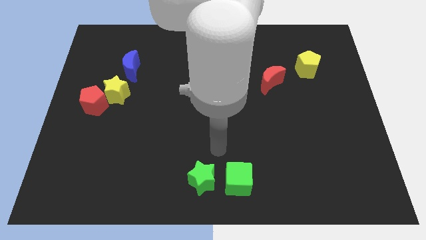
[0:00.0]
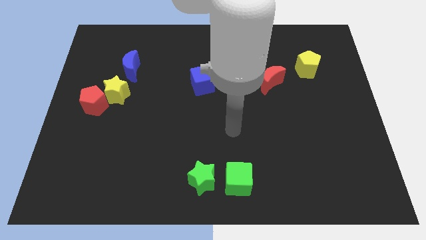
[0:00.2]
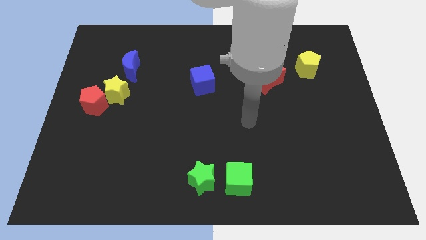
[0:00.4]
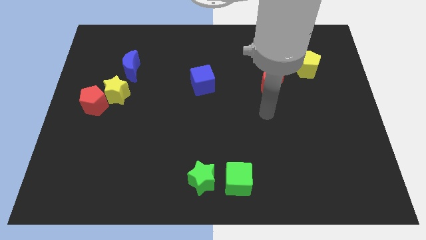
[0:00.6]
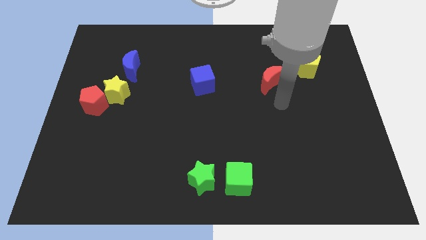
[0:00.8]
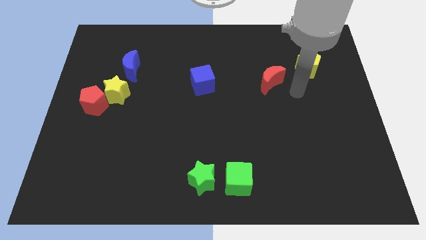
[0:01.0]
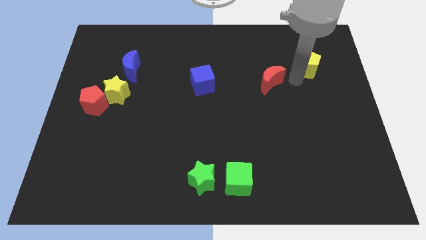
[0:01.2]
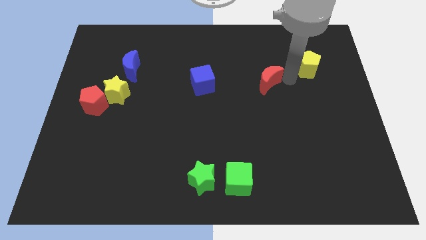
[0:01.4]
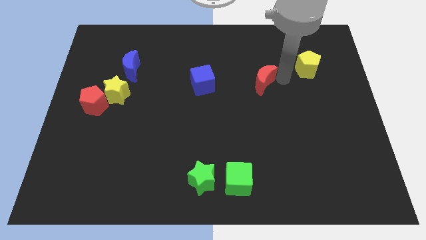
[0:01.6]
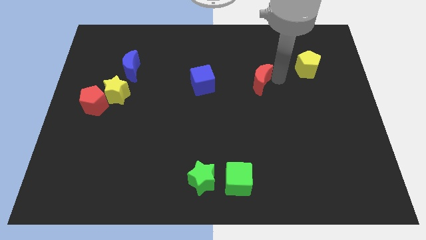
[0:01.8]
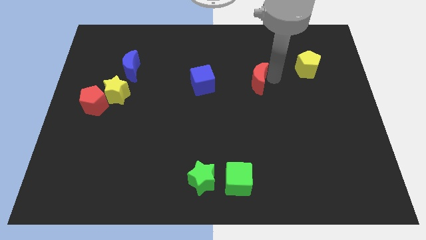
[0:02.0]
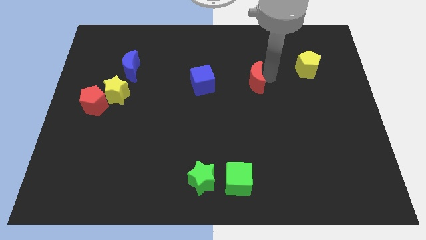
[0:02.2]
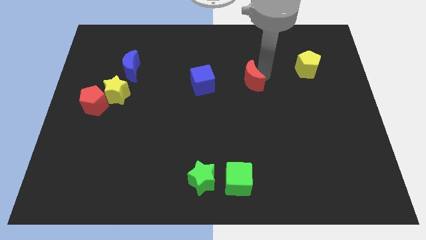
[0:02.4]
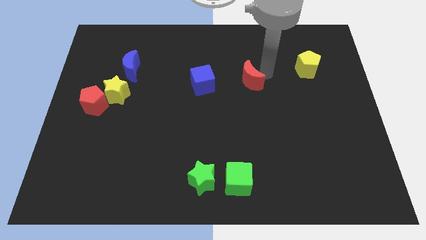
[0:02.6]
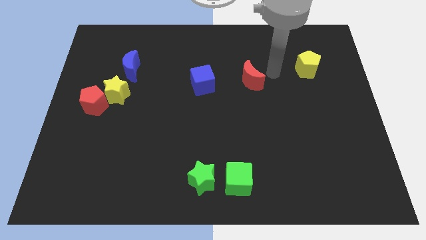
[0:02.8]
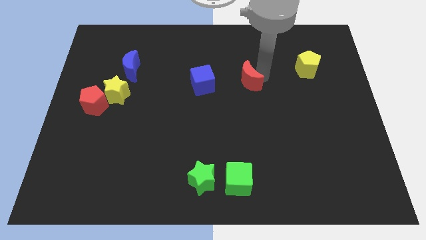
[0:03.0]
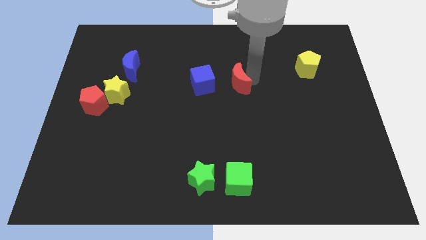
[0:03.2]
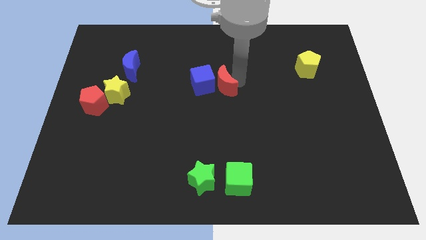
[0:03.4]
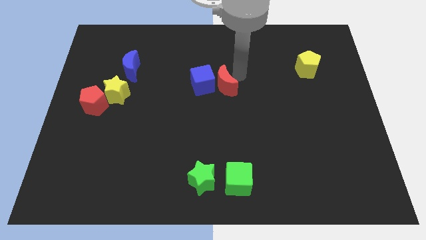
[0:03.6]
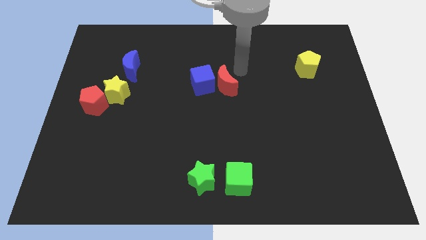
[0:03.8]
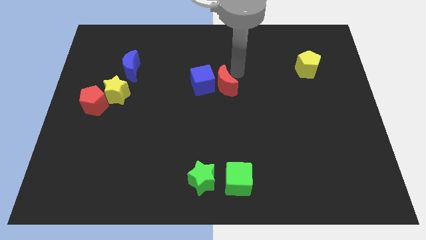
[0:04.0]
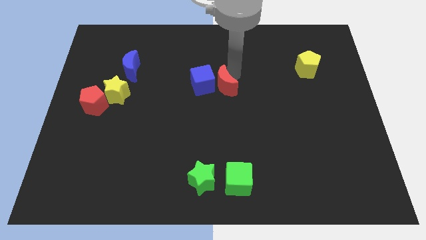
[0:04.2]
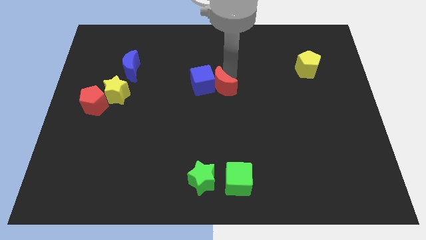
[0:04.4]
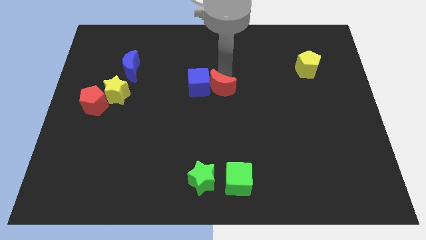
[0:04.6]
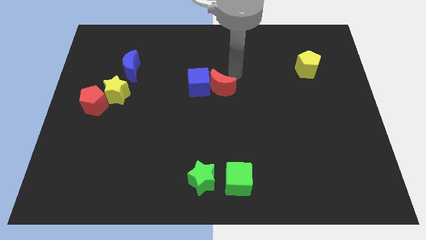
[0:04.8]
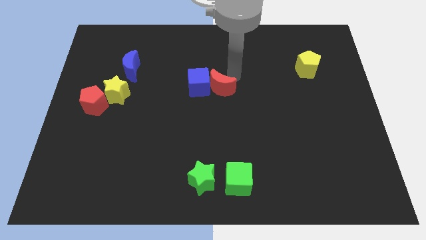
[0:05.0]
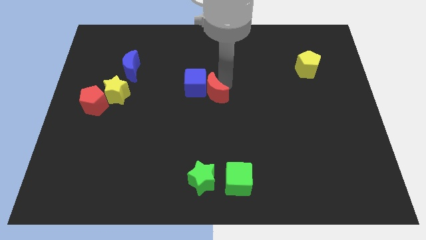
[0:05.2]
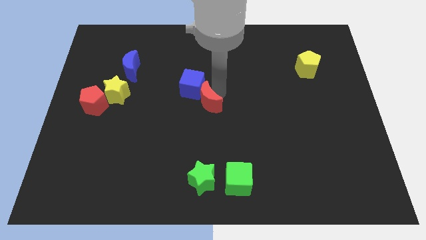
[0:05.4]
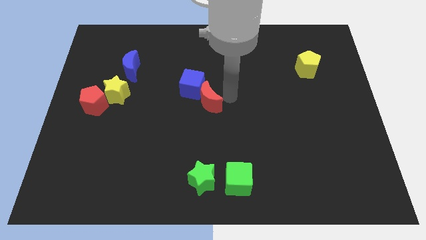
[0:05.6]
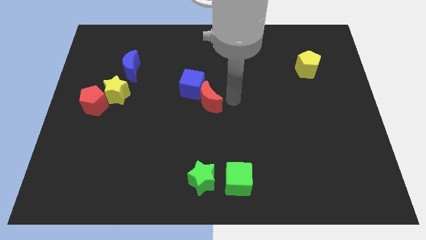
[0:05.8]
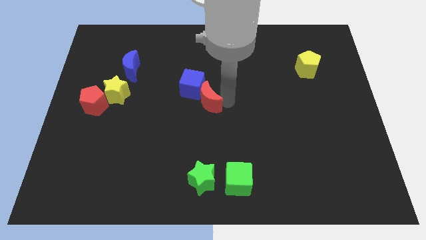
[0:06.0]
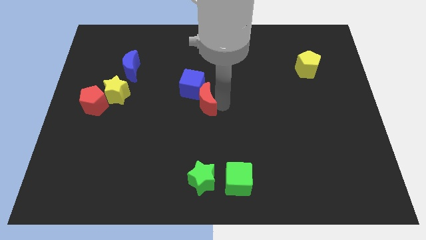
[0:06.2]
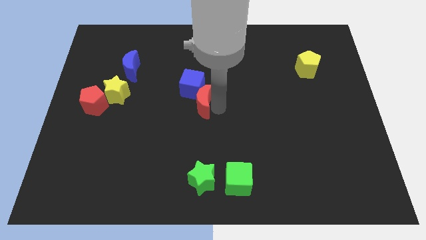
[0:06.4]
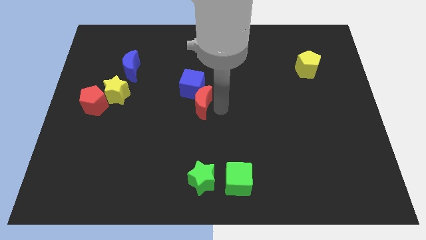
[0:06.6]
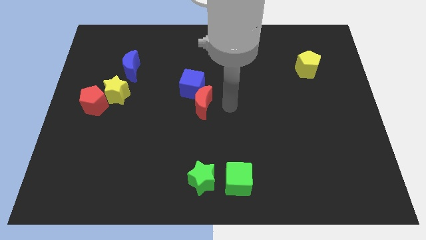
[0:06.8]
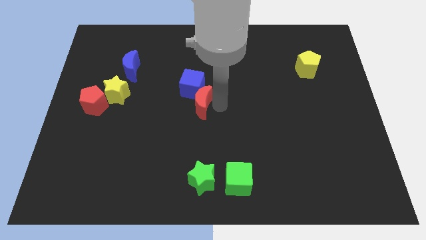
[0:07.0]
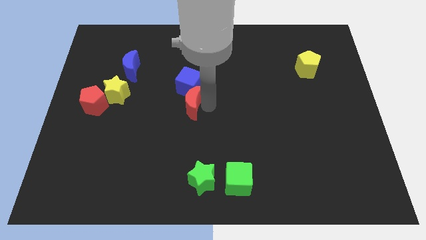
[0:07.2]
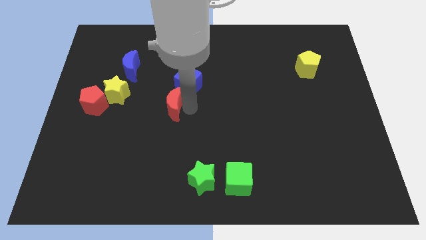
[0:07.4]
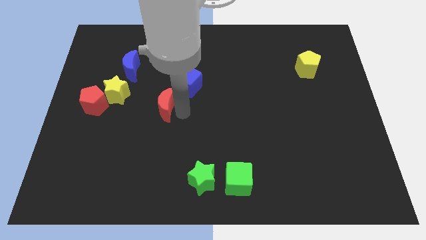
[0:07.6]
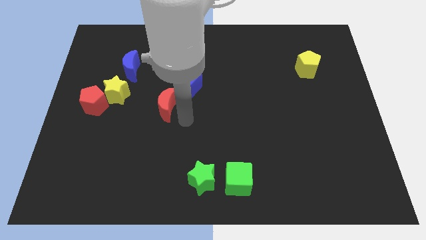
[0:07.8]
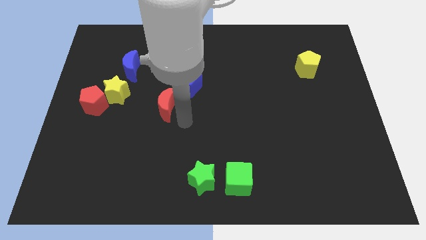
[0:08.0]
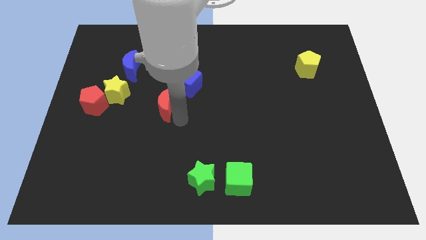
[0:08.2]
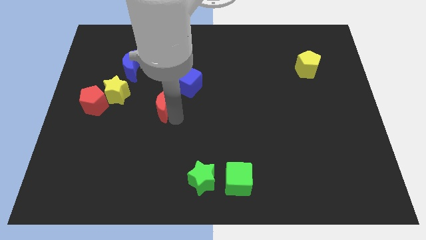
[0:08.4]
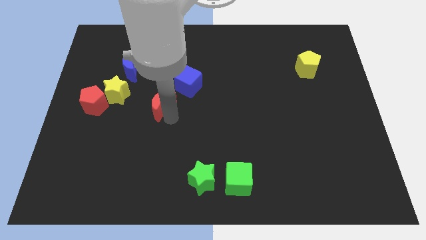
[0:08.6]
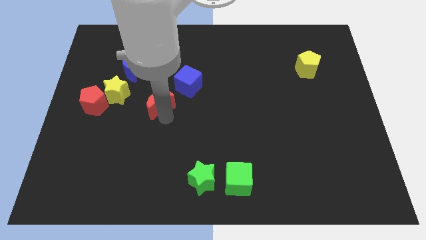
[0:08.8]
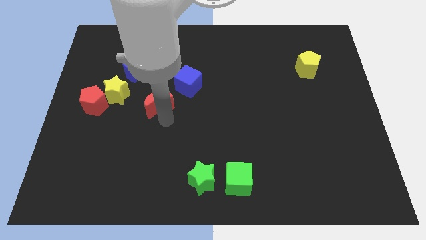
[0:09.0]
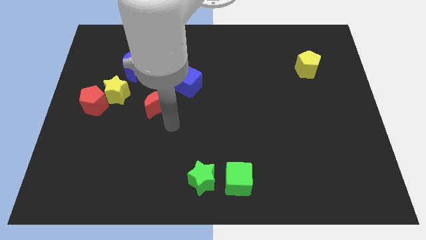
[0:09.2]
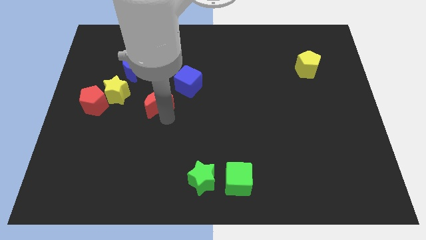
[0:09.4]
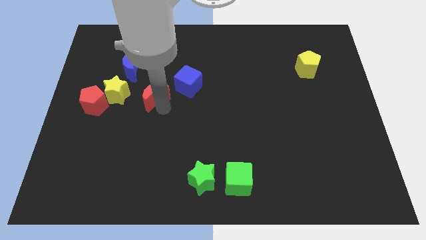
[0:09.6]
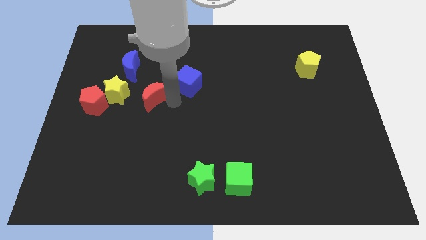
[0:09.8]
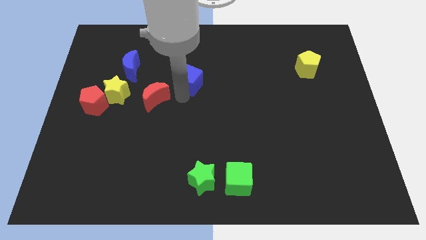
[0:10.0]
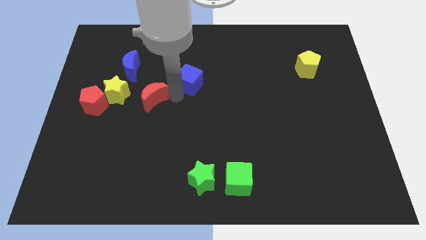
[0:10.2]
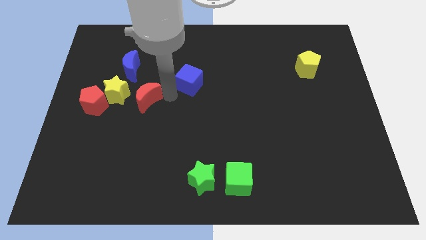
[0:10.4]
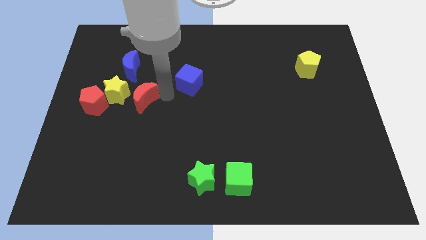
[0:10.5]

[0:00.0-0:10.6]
push the red moon below the blue moon

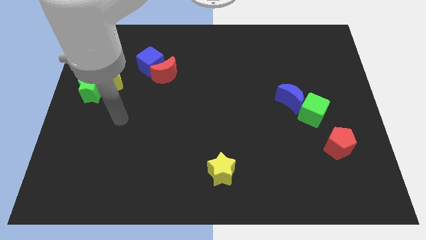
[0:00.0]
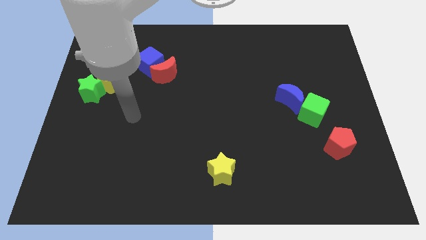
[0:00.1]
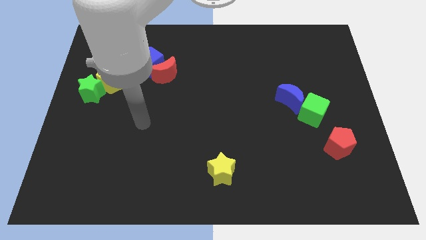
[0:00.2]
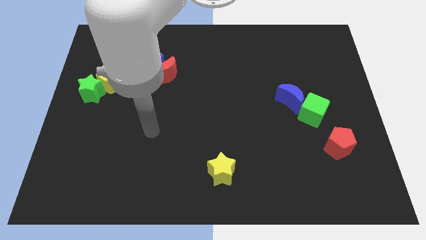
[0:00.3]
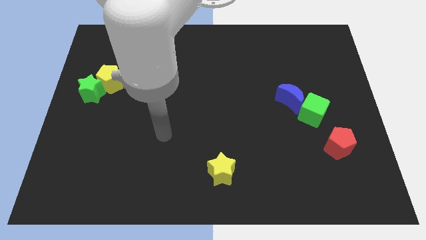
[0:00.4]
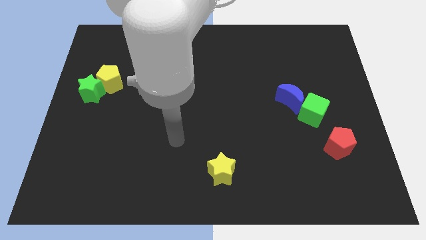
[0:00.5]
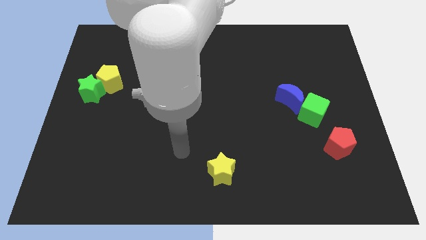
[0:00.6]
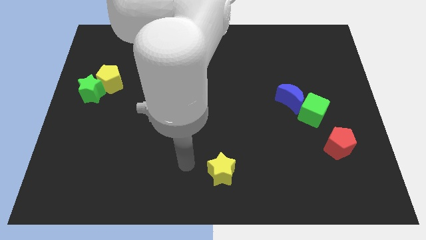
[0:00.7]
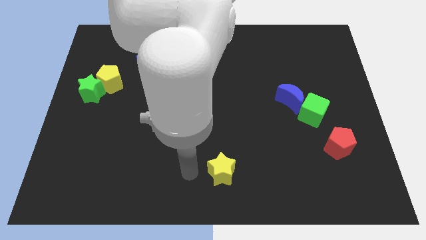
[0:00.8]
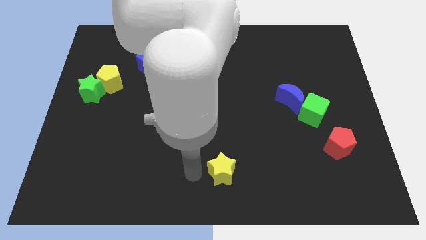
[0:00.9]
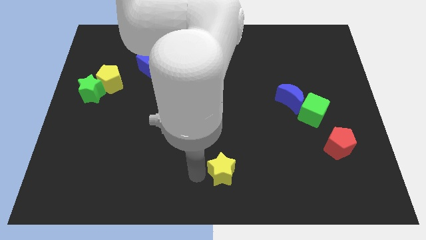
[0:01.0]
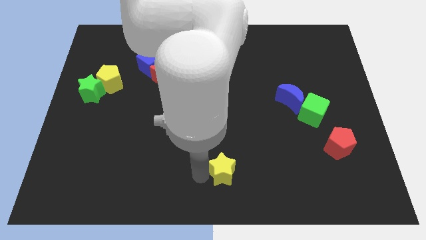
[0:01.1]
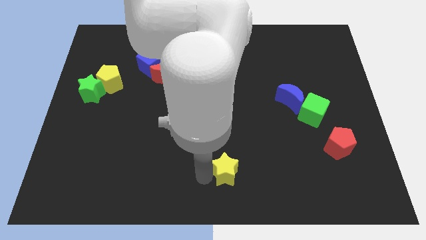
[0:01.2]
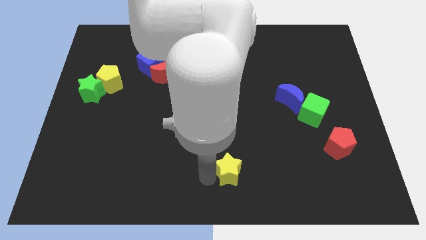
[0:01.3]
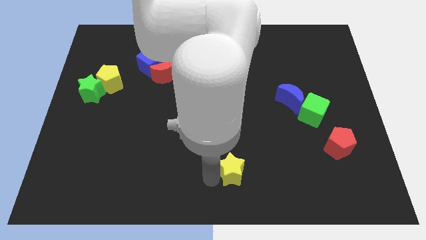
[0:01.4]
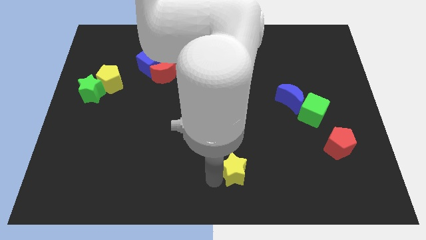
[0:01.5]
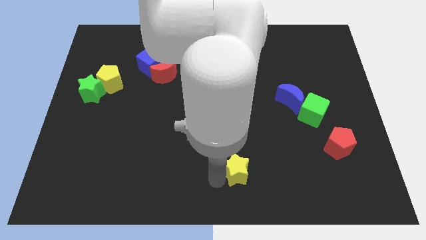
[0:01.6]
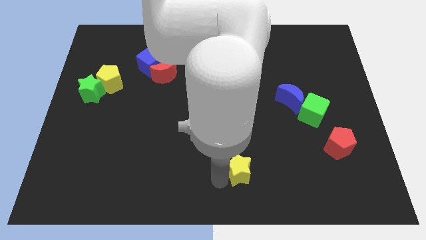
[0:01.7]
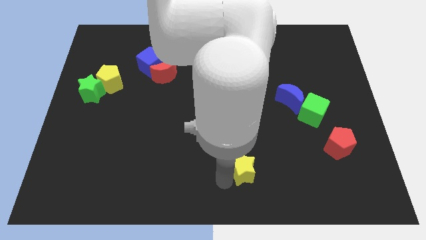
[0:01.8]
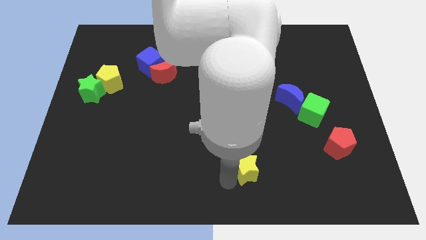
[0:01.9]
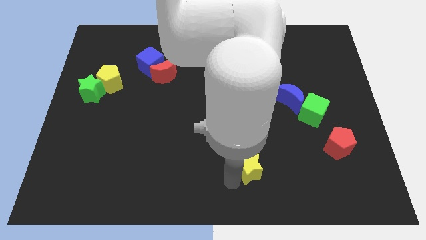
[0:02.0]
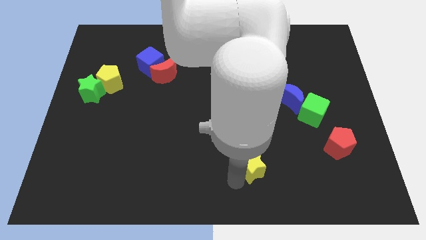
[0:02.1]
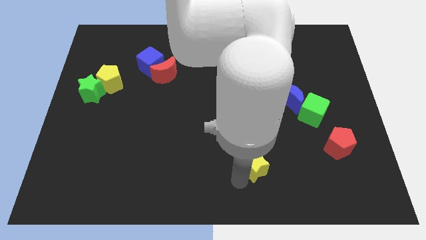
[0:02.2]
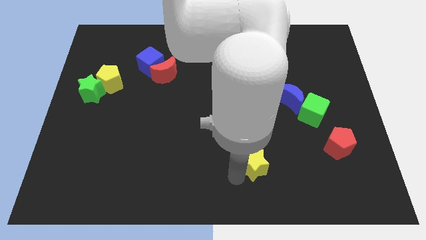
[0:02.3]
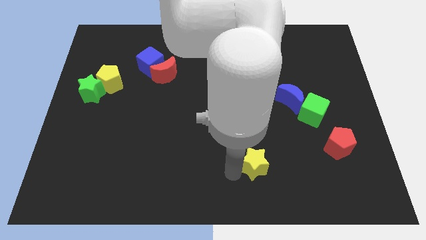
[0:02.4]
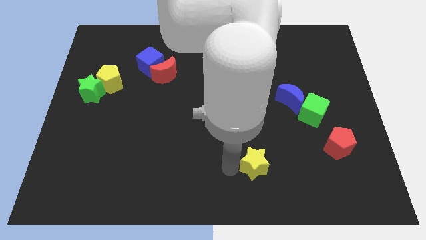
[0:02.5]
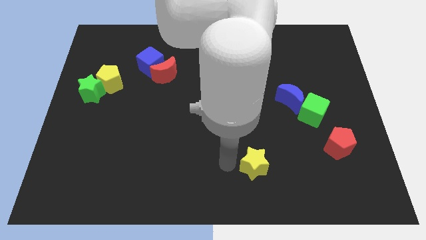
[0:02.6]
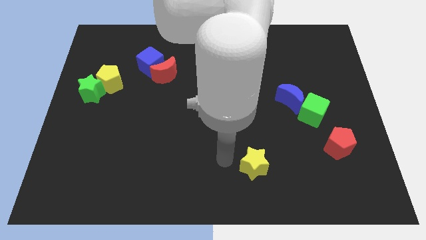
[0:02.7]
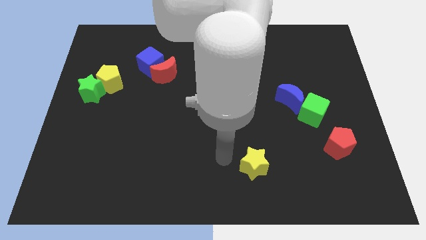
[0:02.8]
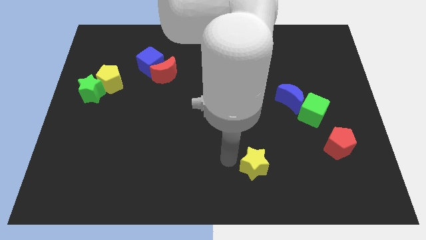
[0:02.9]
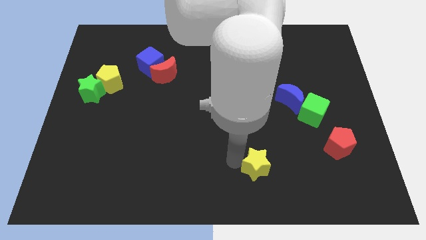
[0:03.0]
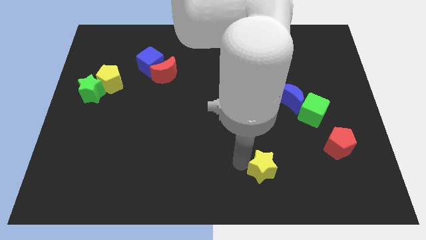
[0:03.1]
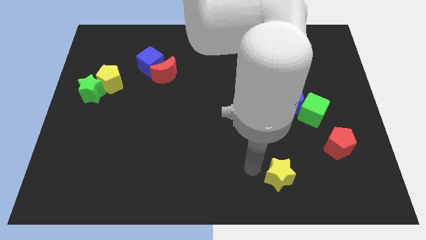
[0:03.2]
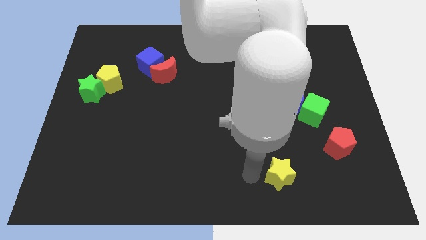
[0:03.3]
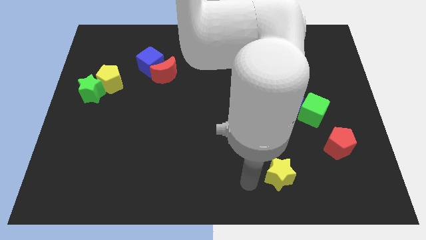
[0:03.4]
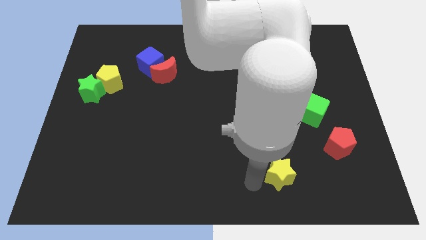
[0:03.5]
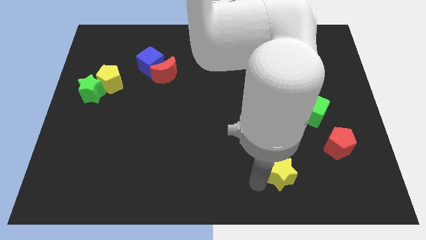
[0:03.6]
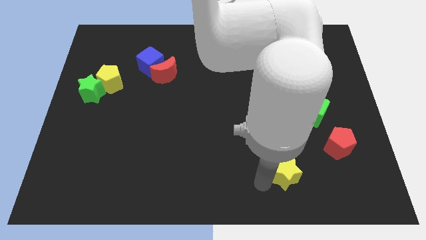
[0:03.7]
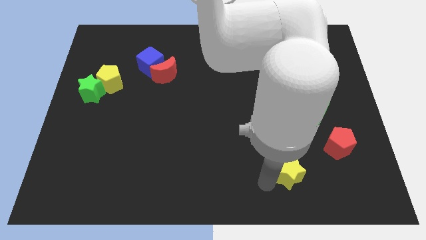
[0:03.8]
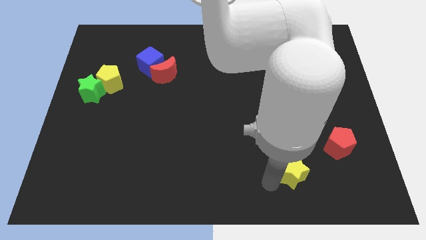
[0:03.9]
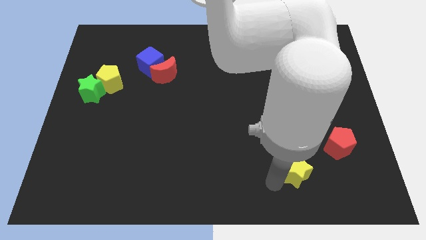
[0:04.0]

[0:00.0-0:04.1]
slide the yellow star diagonally down and to the left of the red pentagon
